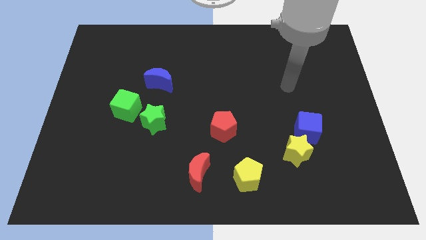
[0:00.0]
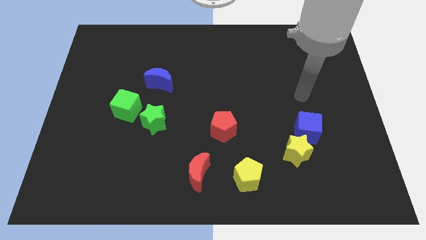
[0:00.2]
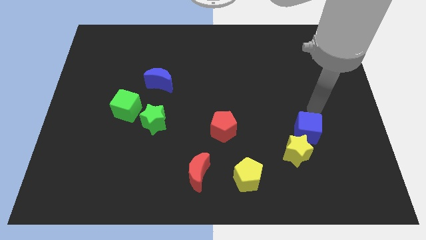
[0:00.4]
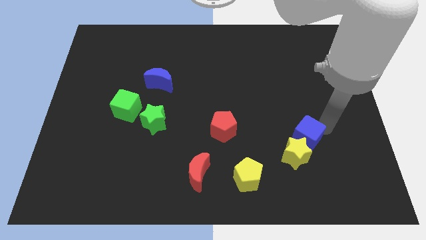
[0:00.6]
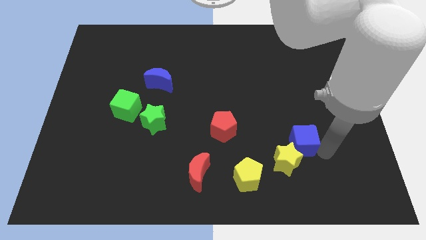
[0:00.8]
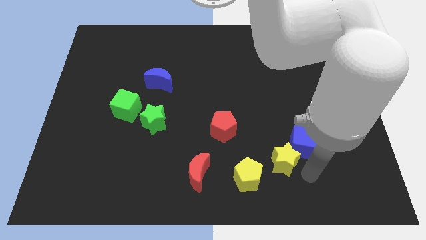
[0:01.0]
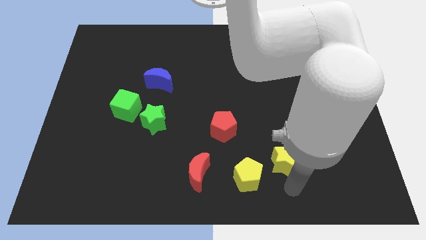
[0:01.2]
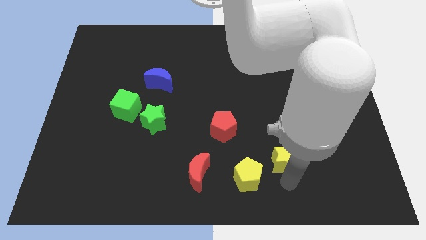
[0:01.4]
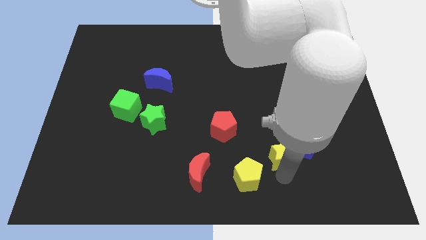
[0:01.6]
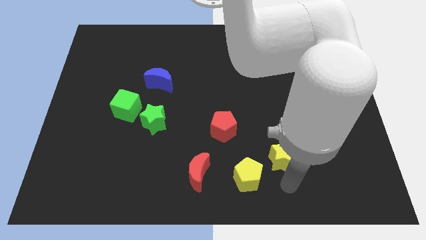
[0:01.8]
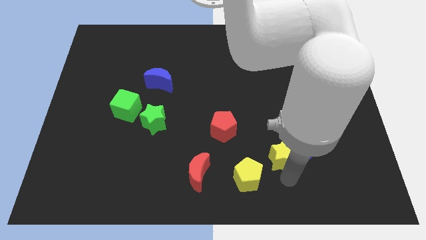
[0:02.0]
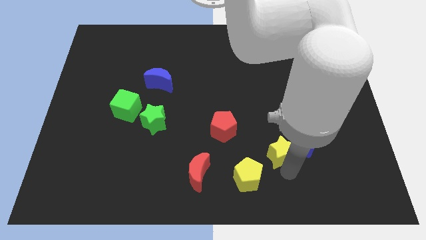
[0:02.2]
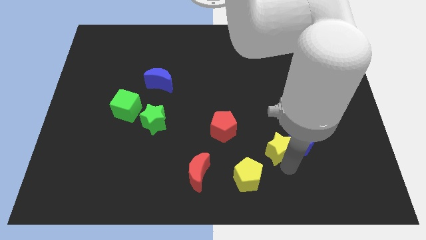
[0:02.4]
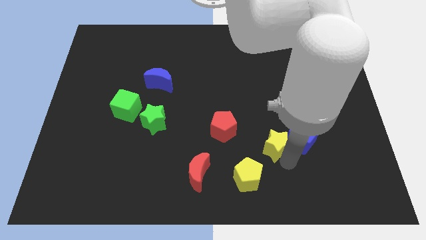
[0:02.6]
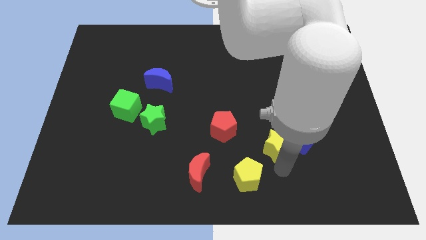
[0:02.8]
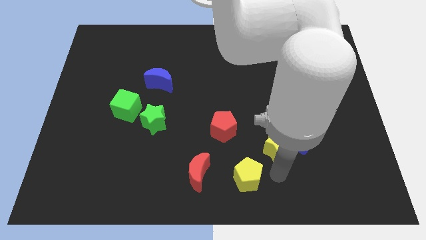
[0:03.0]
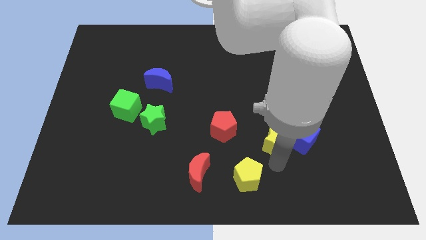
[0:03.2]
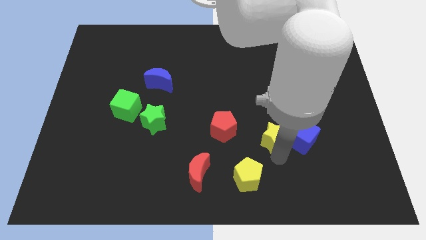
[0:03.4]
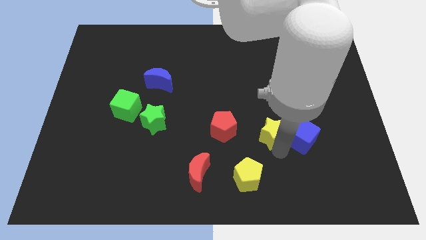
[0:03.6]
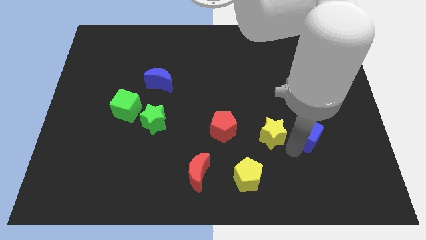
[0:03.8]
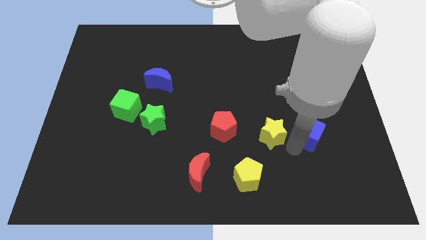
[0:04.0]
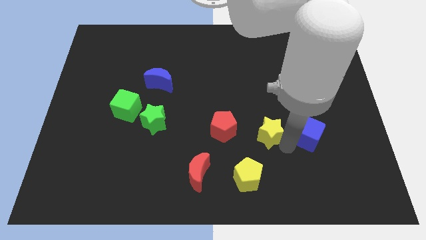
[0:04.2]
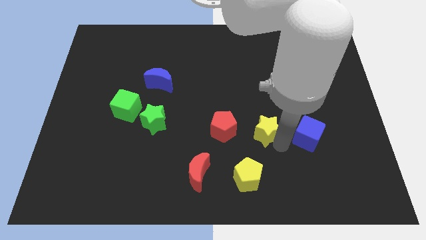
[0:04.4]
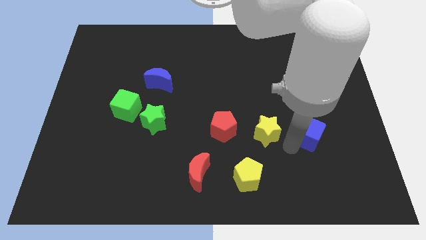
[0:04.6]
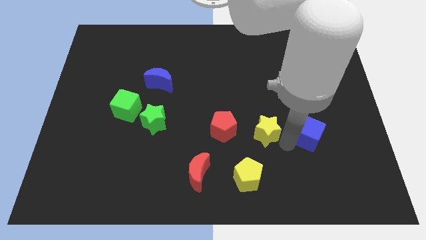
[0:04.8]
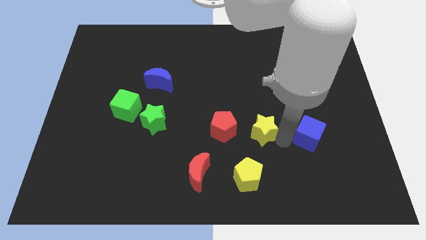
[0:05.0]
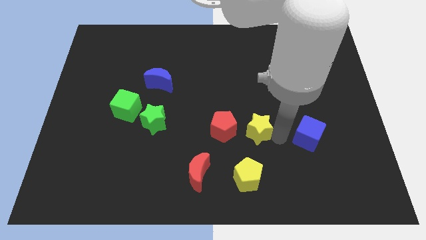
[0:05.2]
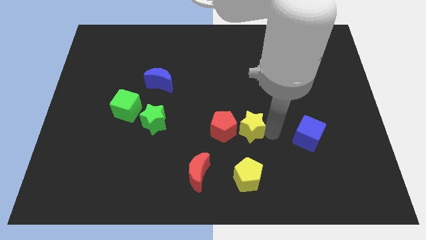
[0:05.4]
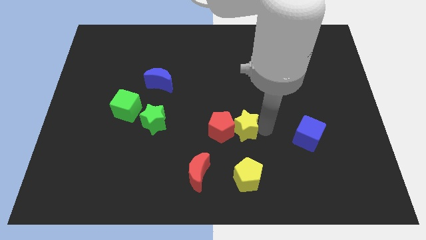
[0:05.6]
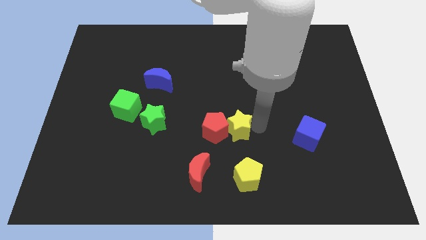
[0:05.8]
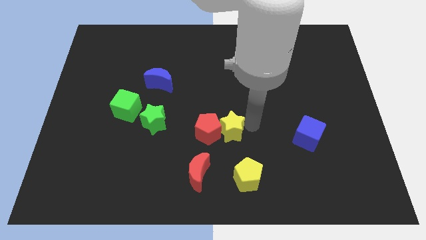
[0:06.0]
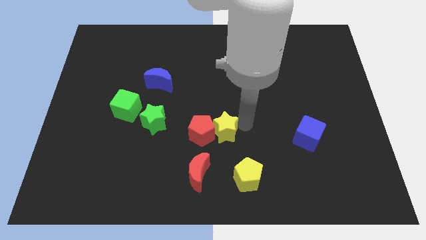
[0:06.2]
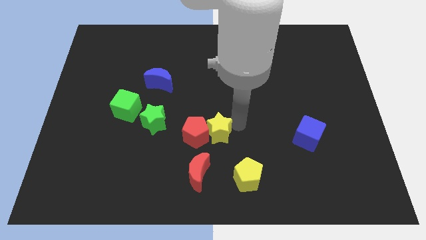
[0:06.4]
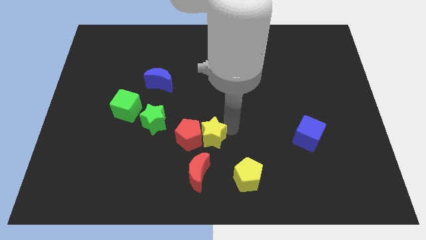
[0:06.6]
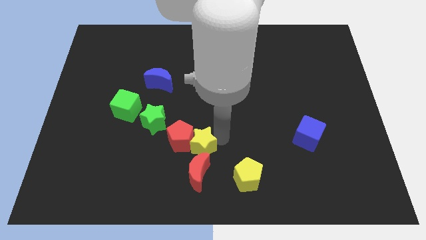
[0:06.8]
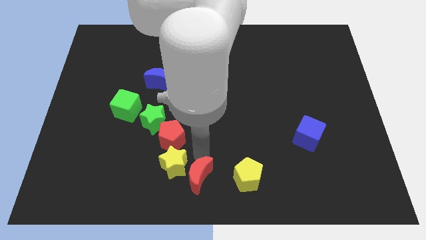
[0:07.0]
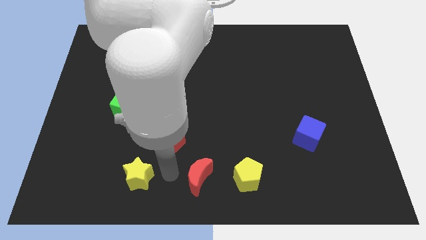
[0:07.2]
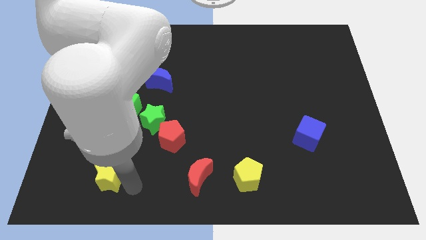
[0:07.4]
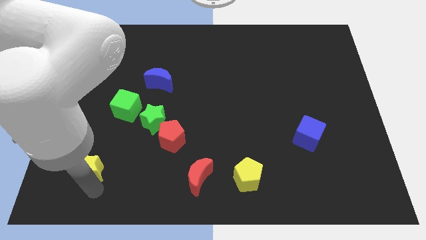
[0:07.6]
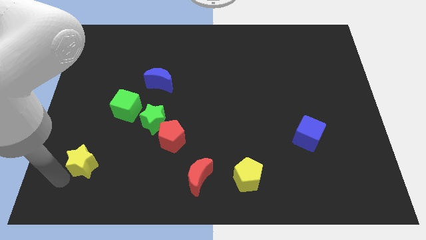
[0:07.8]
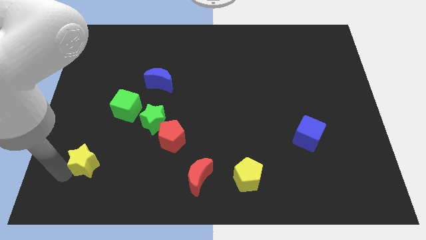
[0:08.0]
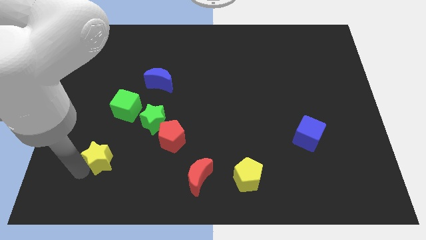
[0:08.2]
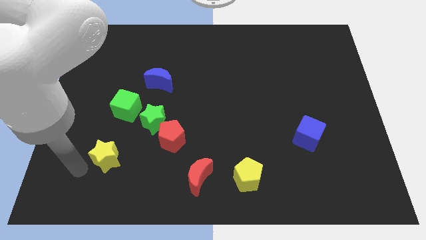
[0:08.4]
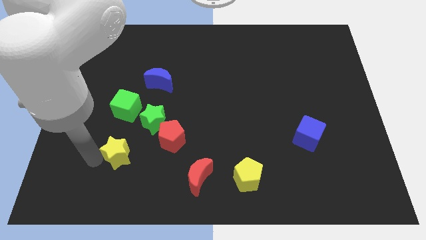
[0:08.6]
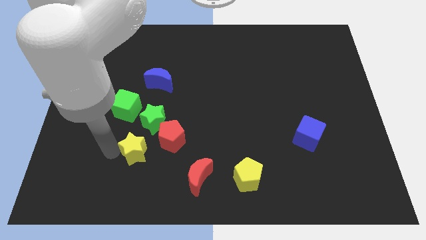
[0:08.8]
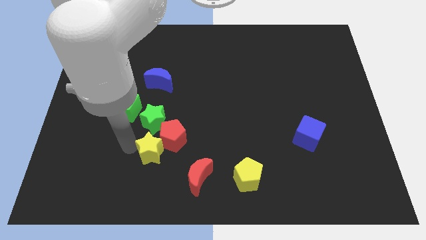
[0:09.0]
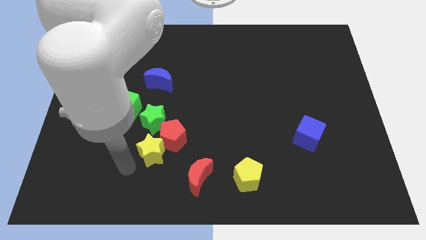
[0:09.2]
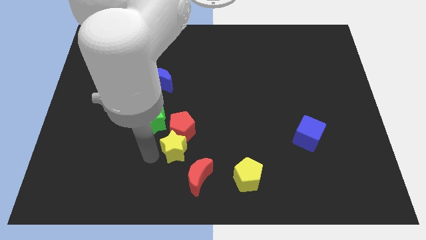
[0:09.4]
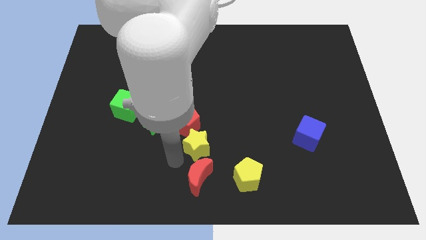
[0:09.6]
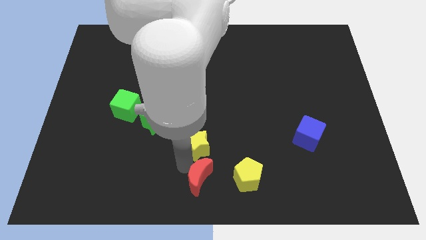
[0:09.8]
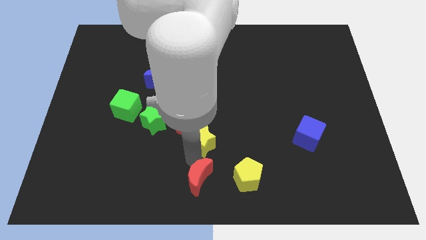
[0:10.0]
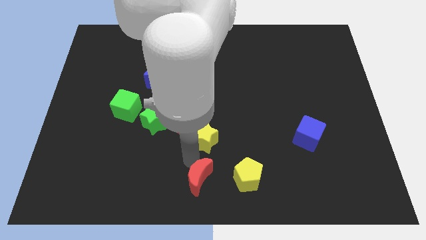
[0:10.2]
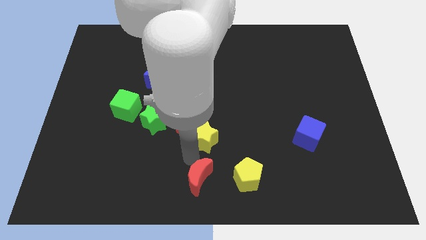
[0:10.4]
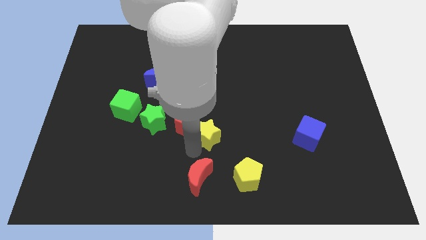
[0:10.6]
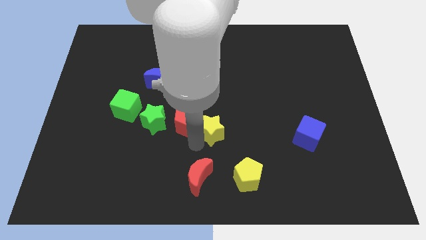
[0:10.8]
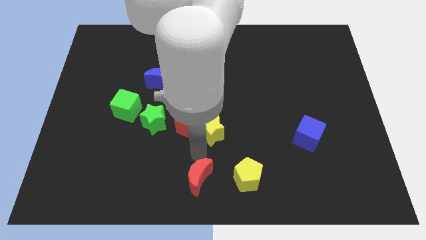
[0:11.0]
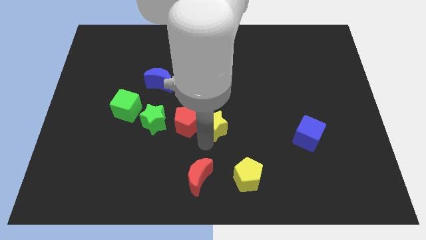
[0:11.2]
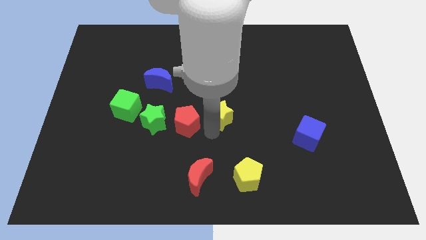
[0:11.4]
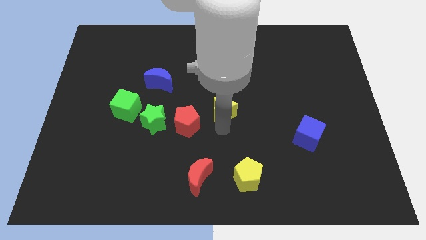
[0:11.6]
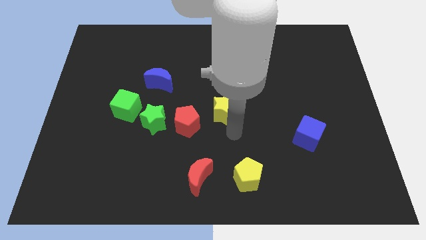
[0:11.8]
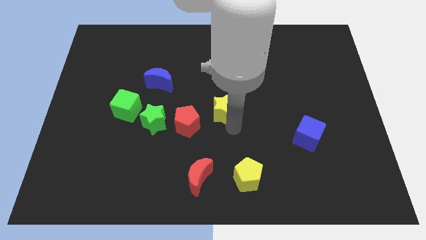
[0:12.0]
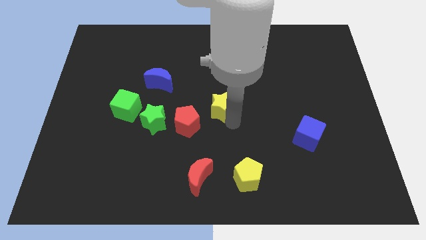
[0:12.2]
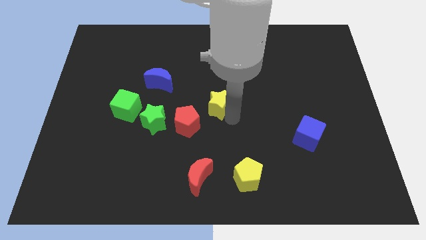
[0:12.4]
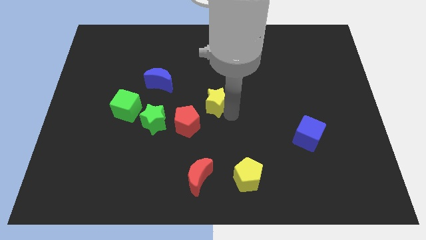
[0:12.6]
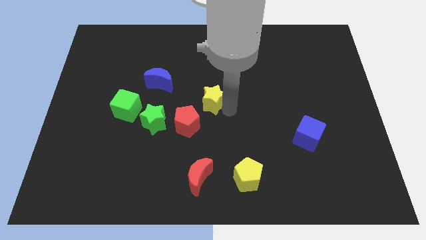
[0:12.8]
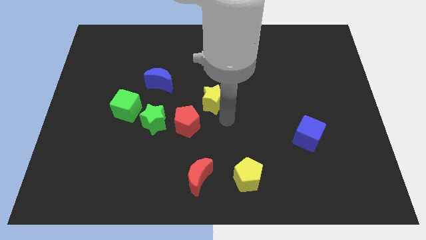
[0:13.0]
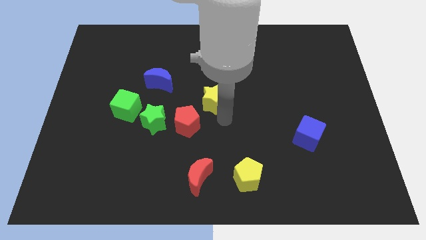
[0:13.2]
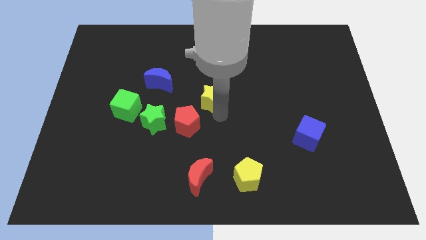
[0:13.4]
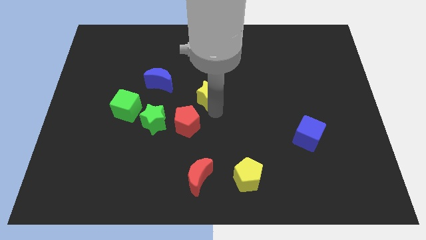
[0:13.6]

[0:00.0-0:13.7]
put the yellow star to the right of the blue moon
